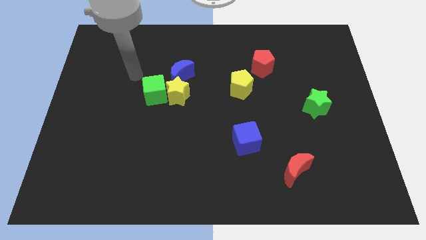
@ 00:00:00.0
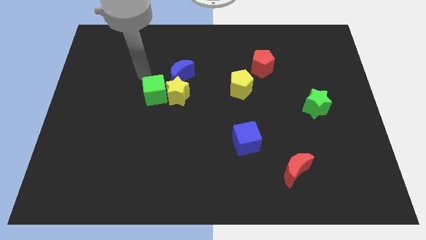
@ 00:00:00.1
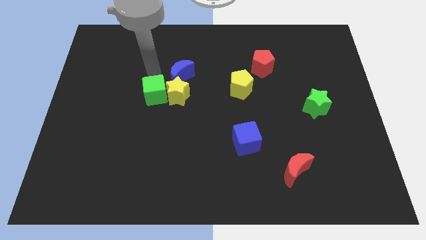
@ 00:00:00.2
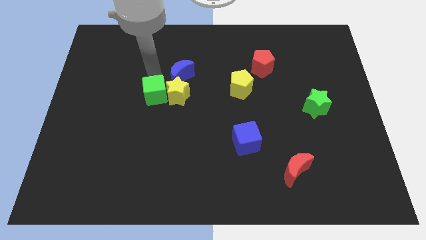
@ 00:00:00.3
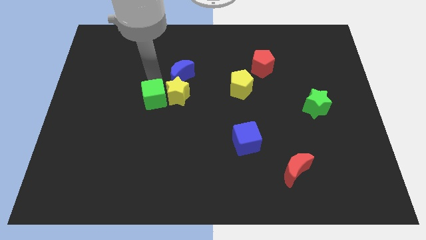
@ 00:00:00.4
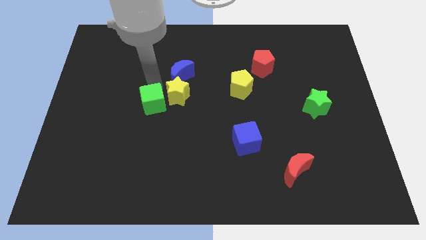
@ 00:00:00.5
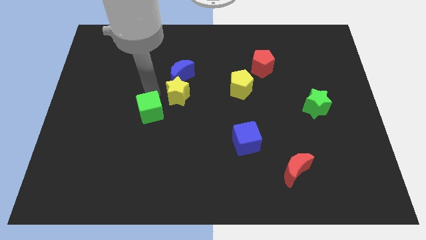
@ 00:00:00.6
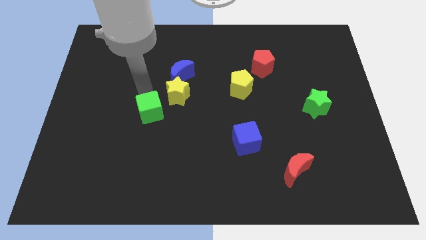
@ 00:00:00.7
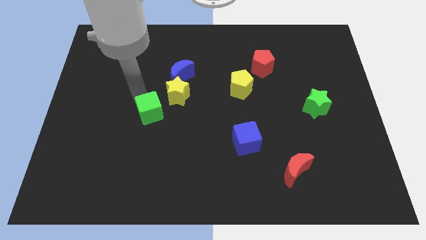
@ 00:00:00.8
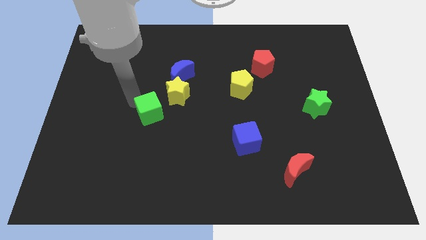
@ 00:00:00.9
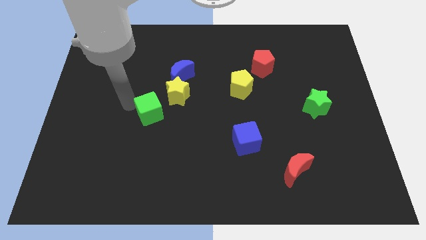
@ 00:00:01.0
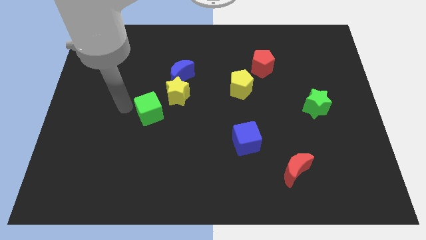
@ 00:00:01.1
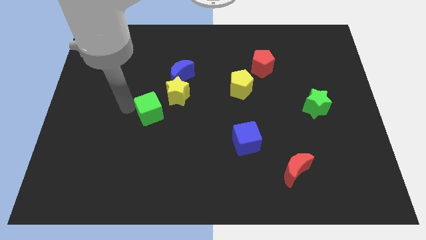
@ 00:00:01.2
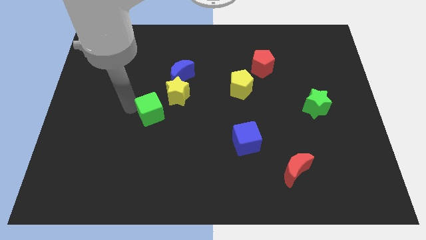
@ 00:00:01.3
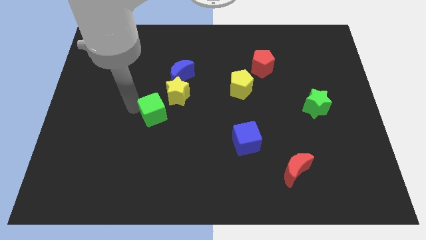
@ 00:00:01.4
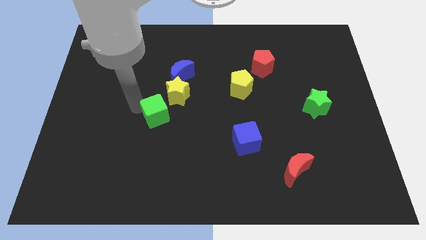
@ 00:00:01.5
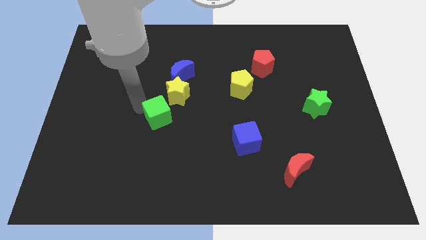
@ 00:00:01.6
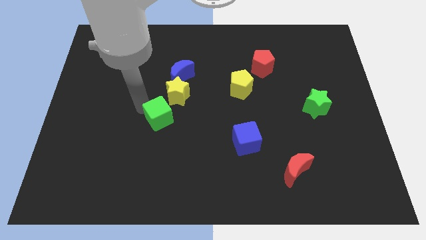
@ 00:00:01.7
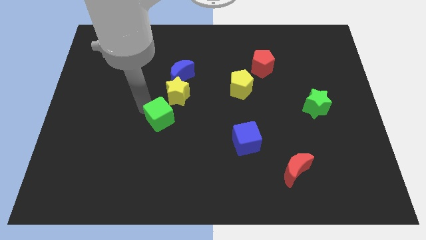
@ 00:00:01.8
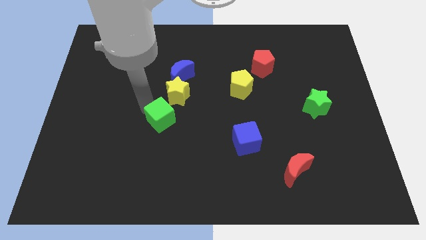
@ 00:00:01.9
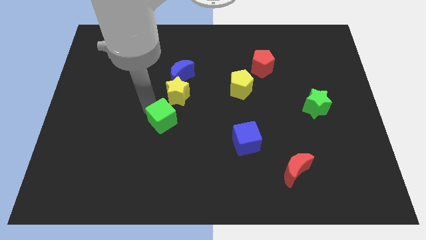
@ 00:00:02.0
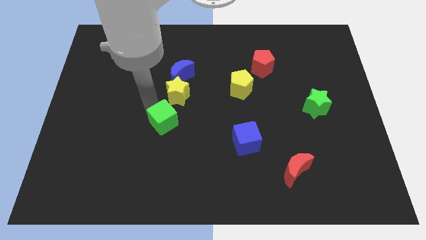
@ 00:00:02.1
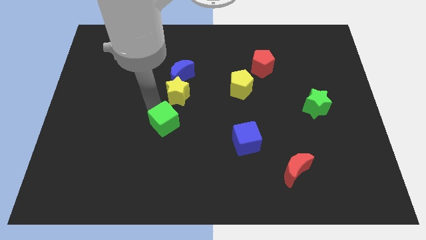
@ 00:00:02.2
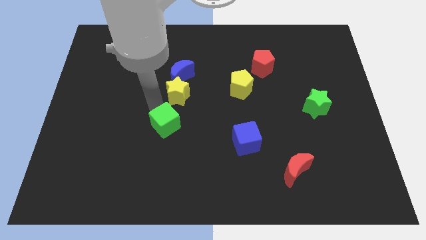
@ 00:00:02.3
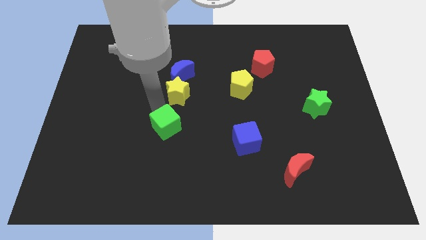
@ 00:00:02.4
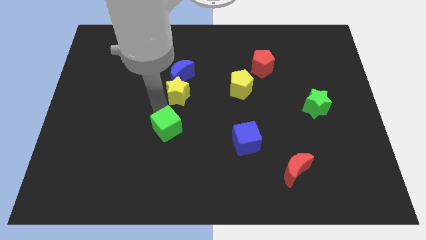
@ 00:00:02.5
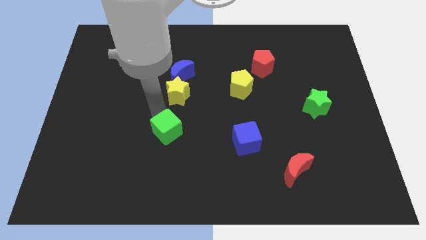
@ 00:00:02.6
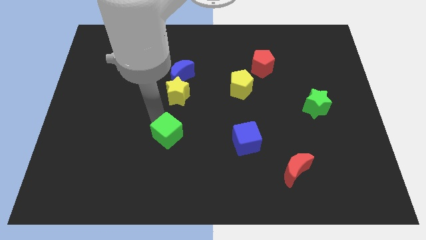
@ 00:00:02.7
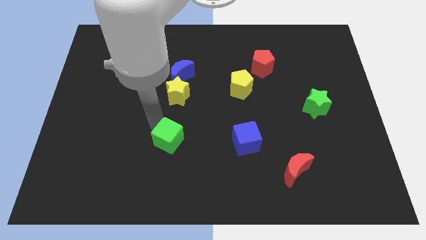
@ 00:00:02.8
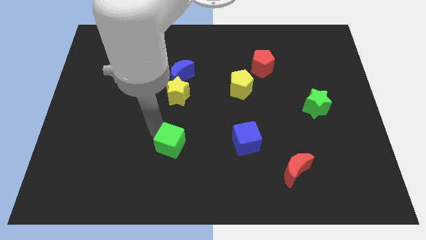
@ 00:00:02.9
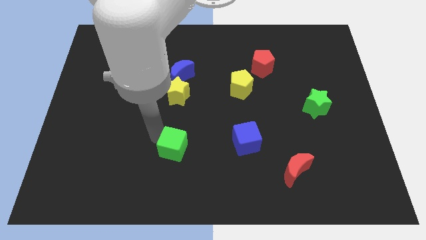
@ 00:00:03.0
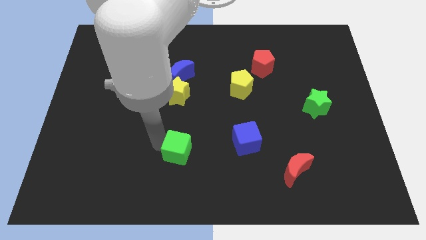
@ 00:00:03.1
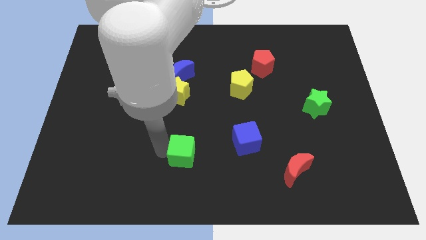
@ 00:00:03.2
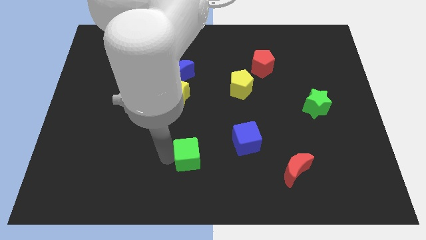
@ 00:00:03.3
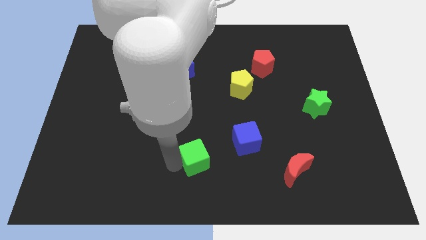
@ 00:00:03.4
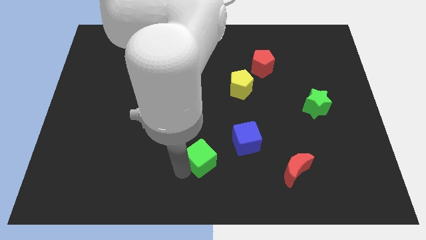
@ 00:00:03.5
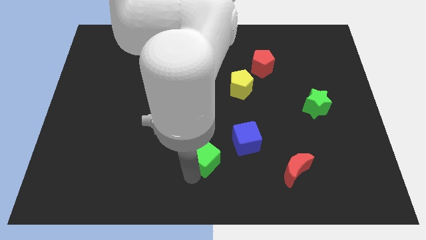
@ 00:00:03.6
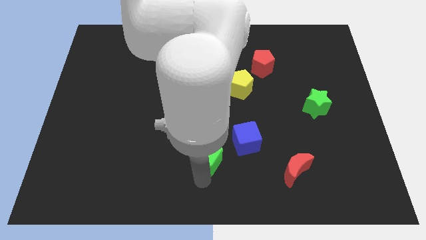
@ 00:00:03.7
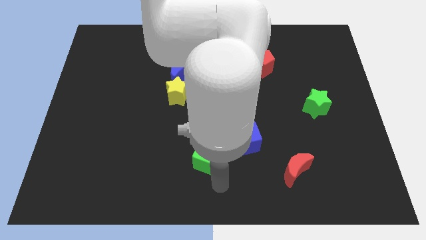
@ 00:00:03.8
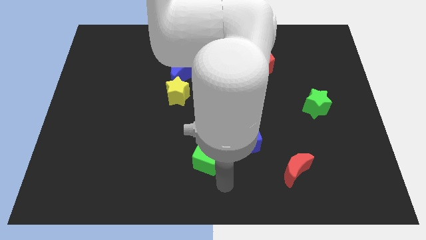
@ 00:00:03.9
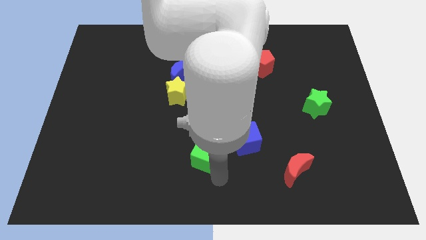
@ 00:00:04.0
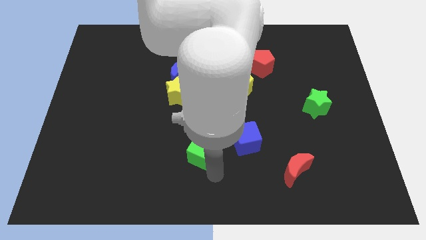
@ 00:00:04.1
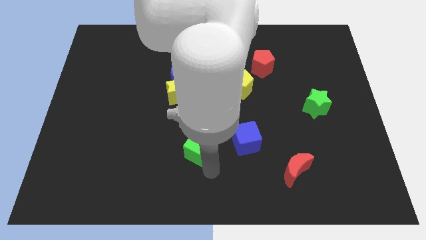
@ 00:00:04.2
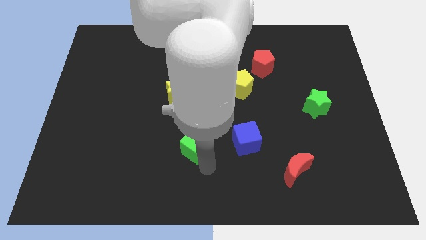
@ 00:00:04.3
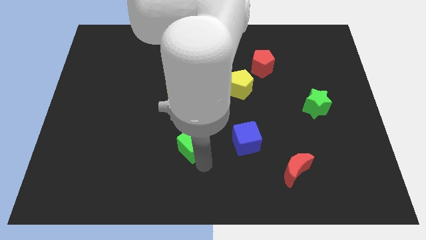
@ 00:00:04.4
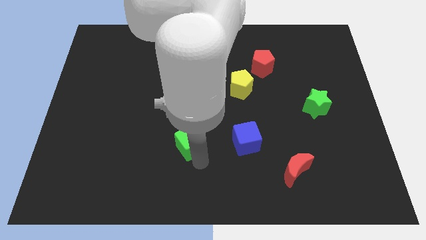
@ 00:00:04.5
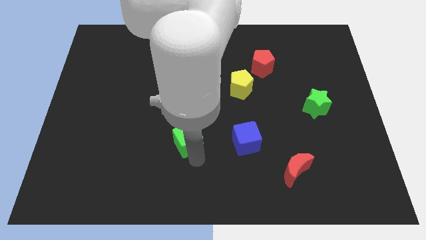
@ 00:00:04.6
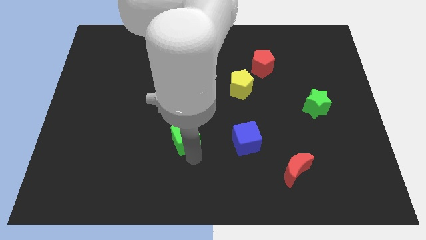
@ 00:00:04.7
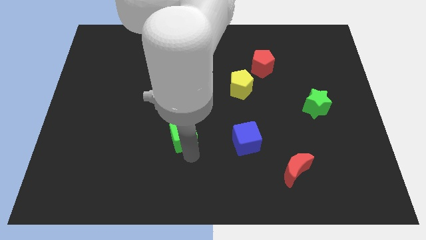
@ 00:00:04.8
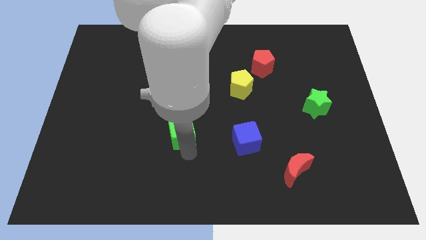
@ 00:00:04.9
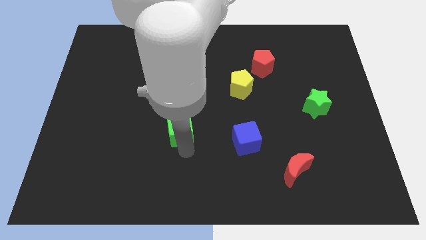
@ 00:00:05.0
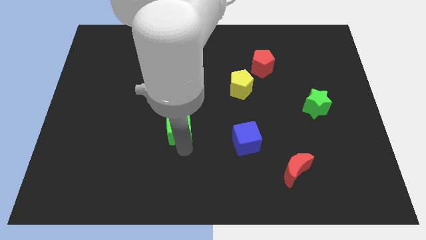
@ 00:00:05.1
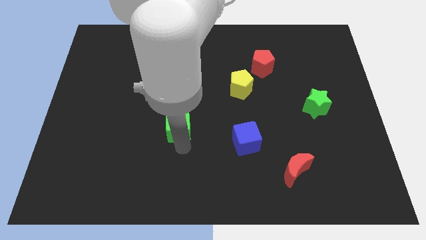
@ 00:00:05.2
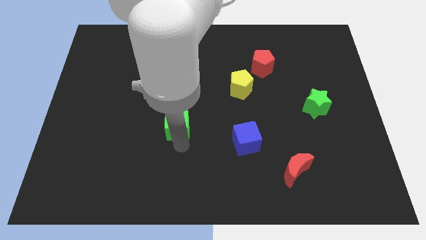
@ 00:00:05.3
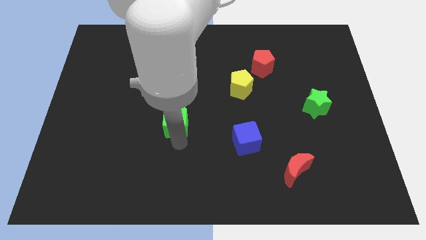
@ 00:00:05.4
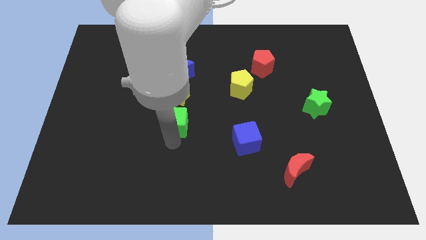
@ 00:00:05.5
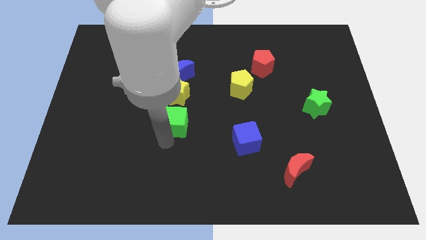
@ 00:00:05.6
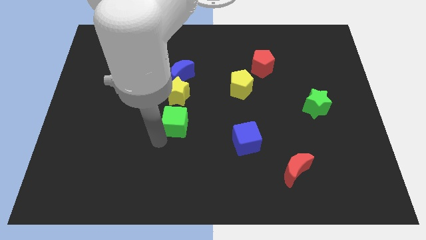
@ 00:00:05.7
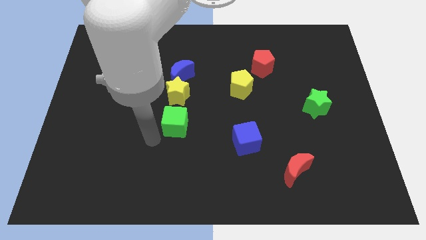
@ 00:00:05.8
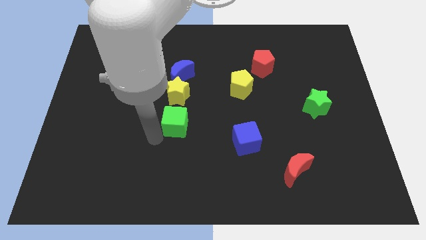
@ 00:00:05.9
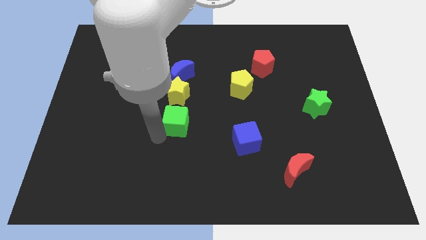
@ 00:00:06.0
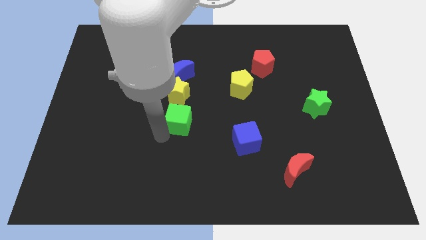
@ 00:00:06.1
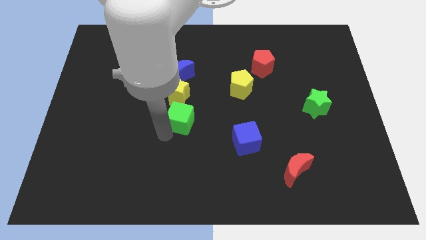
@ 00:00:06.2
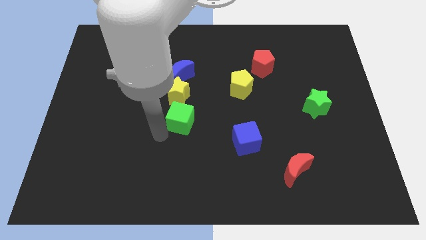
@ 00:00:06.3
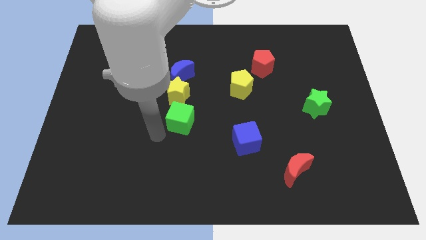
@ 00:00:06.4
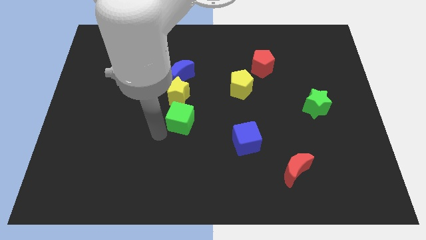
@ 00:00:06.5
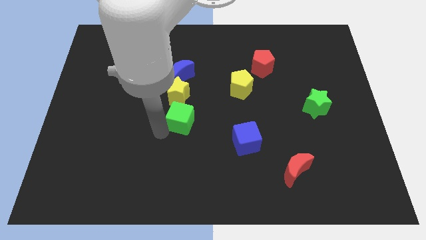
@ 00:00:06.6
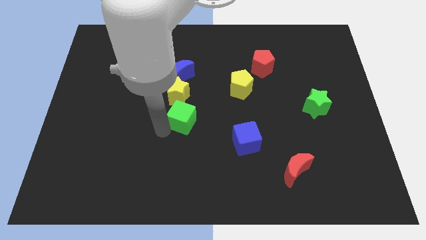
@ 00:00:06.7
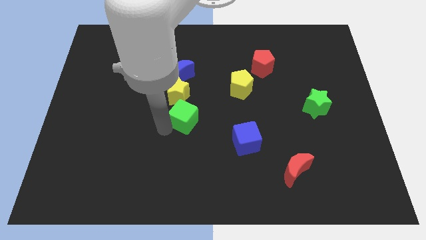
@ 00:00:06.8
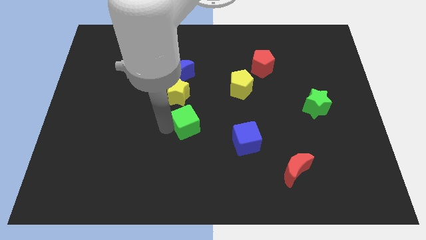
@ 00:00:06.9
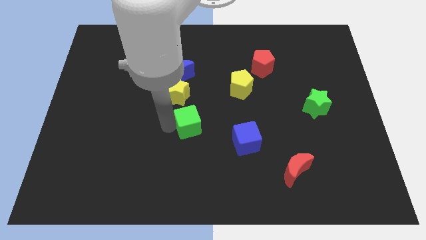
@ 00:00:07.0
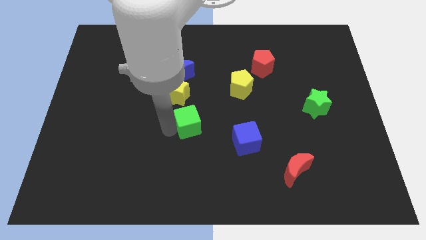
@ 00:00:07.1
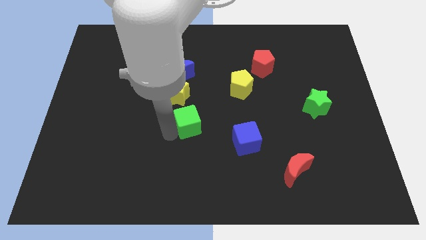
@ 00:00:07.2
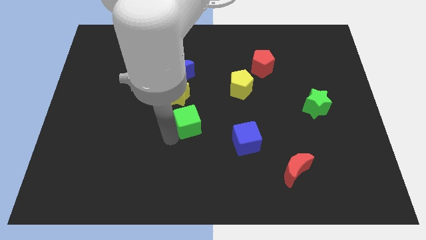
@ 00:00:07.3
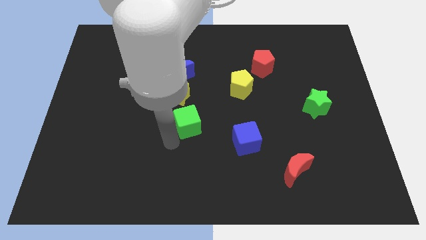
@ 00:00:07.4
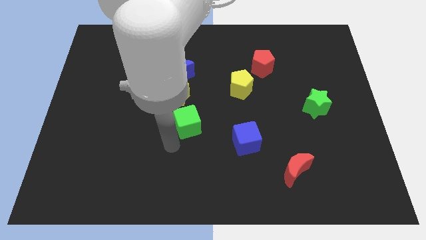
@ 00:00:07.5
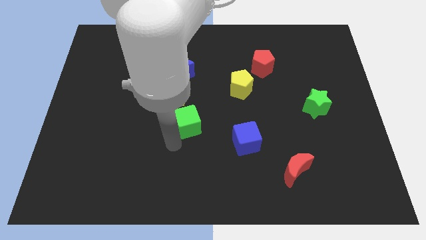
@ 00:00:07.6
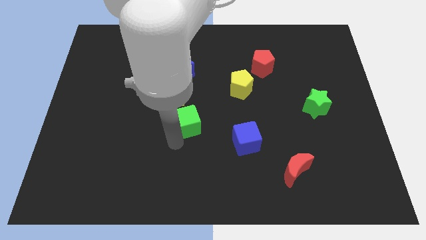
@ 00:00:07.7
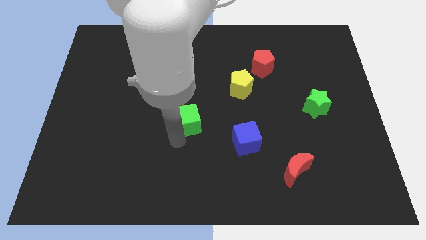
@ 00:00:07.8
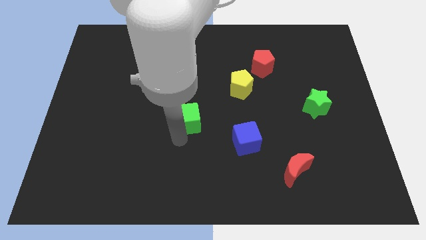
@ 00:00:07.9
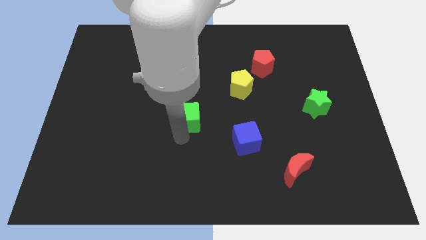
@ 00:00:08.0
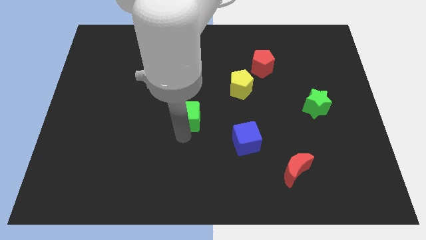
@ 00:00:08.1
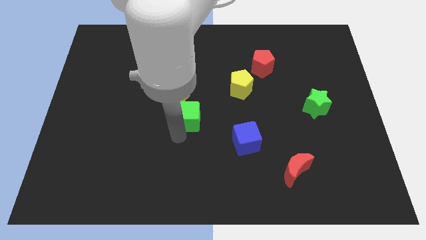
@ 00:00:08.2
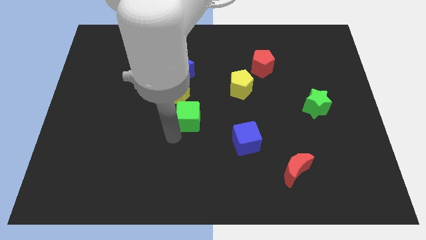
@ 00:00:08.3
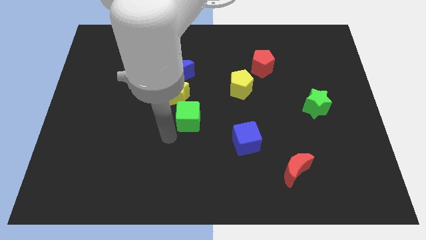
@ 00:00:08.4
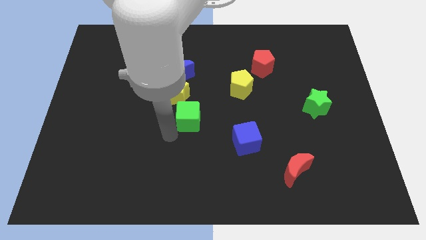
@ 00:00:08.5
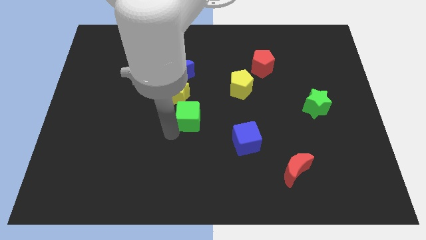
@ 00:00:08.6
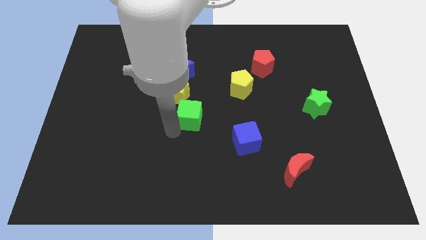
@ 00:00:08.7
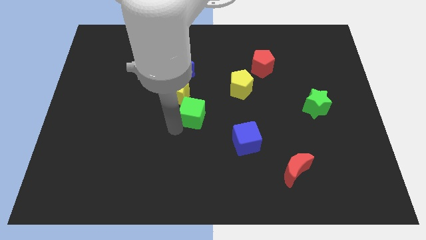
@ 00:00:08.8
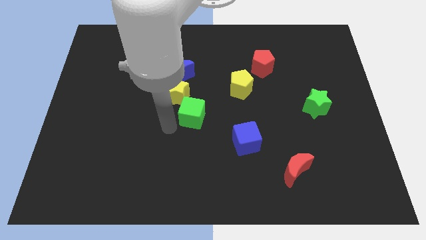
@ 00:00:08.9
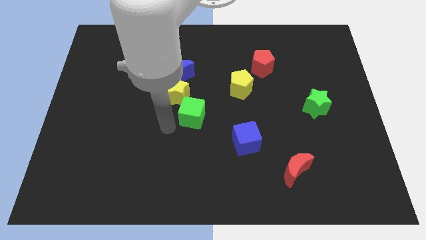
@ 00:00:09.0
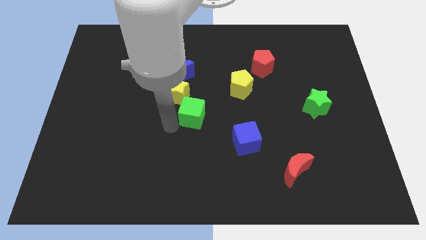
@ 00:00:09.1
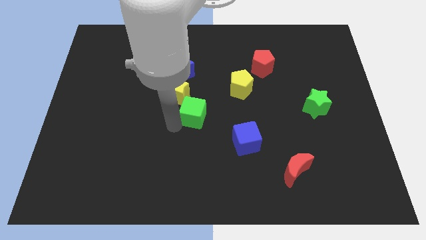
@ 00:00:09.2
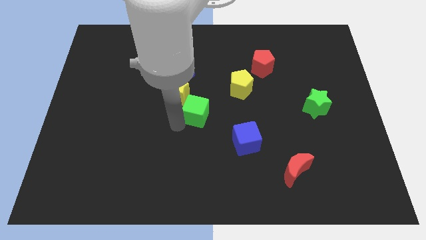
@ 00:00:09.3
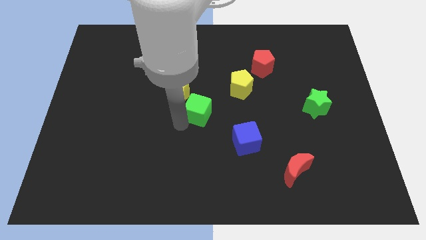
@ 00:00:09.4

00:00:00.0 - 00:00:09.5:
put the green cube to the bottom left of the yellow pentagon
